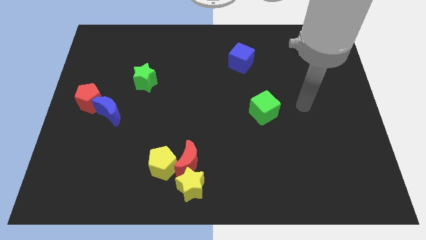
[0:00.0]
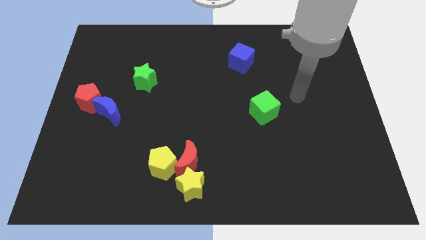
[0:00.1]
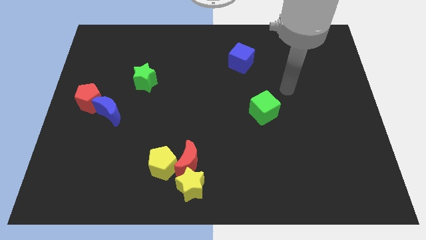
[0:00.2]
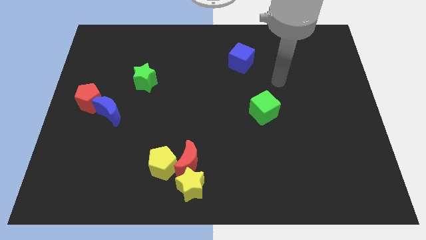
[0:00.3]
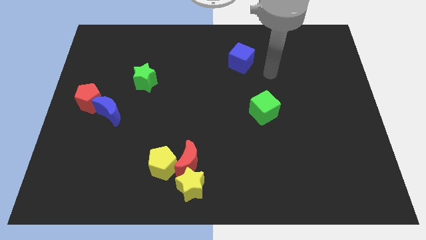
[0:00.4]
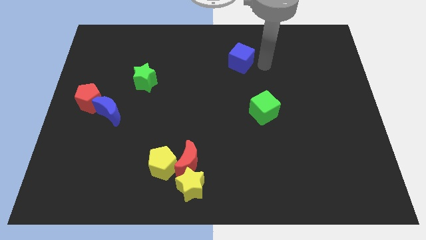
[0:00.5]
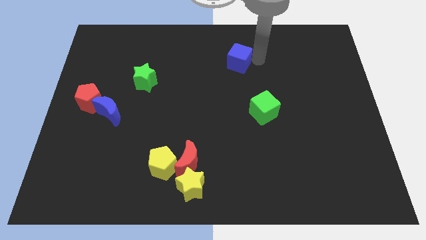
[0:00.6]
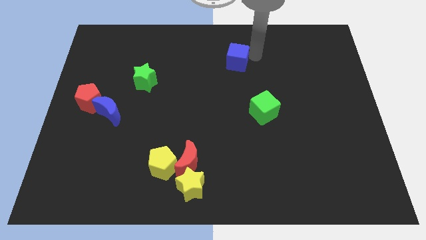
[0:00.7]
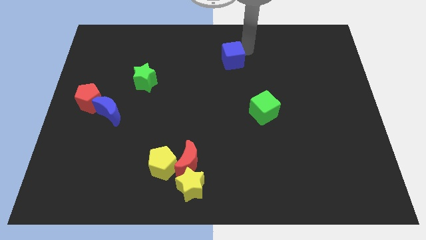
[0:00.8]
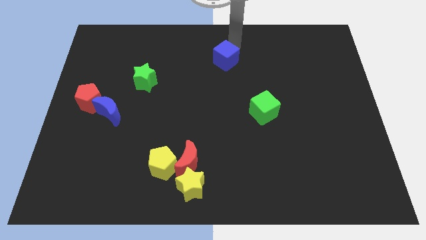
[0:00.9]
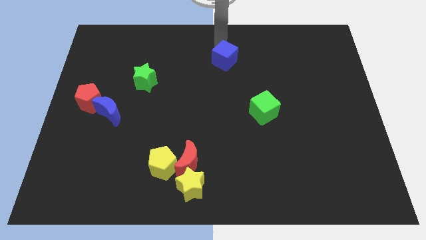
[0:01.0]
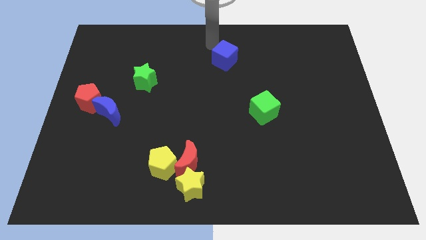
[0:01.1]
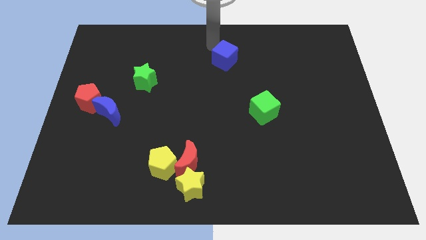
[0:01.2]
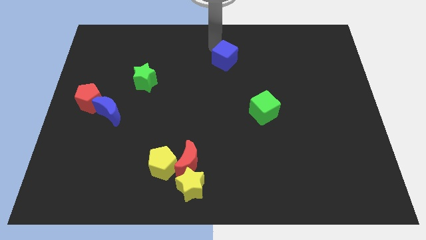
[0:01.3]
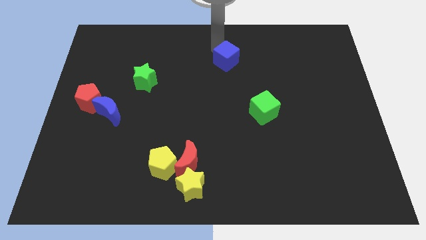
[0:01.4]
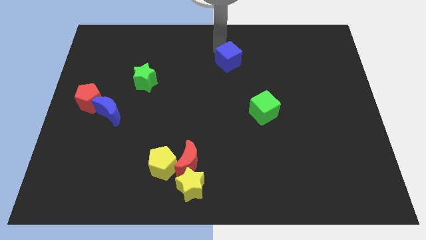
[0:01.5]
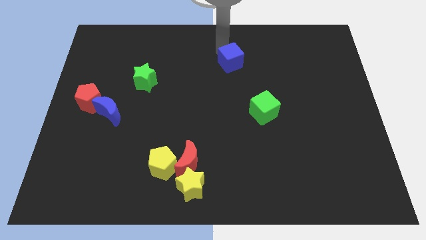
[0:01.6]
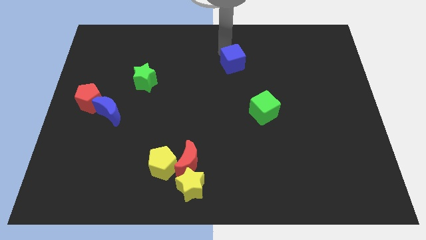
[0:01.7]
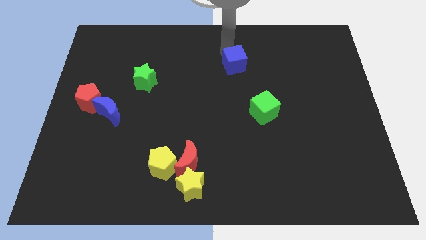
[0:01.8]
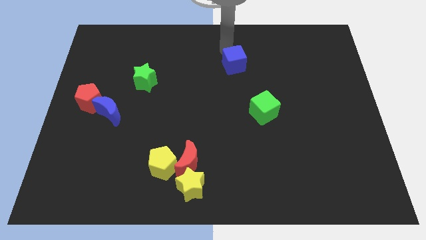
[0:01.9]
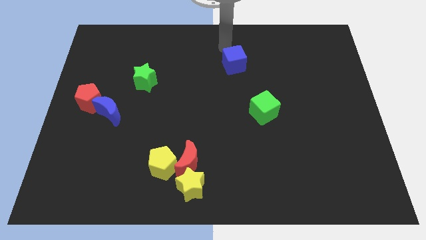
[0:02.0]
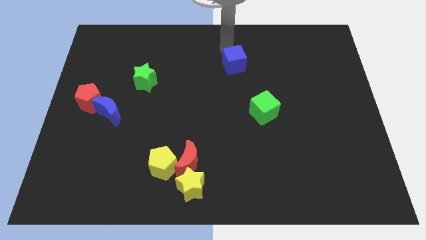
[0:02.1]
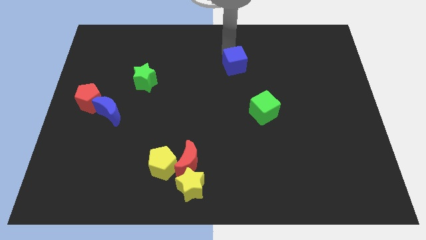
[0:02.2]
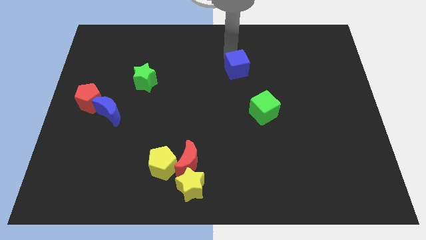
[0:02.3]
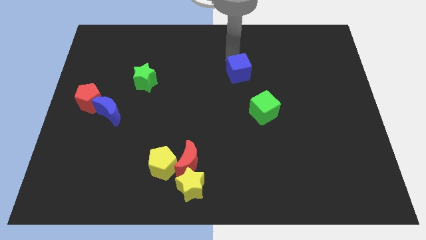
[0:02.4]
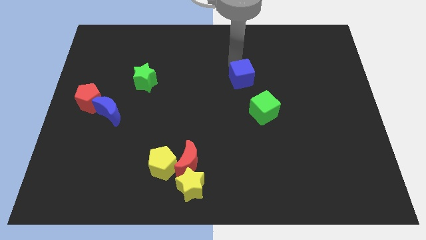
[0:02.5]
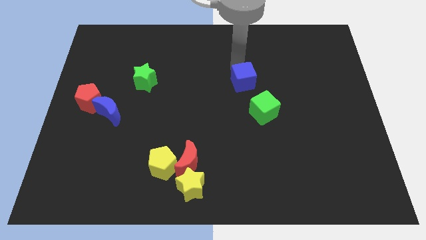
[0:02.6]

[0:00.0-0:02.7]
slide the blue cube down somewhat

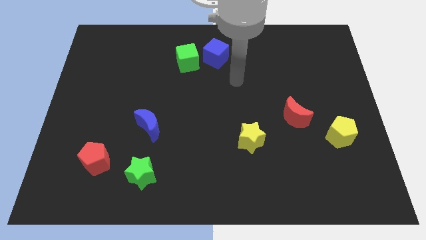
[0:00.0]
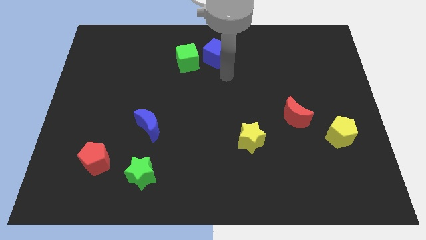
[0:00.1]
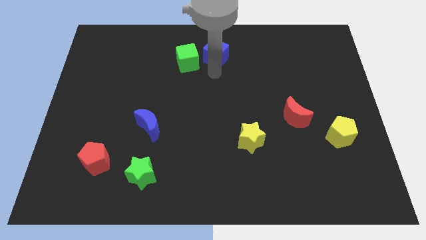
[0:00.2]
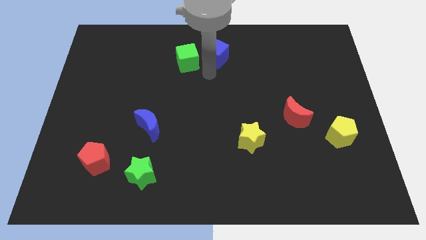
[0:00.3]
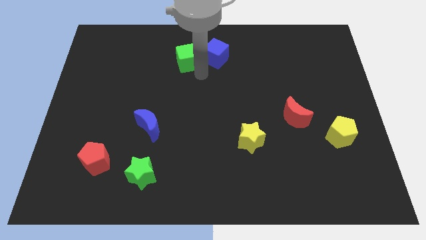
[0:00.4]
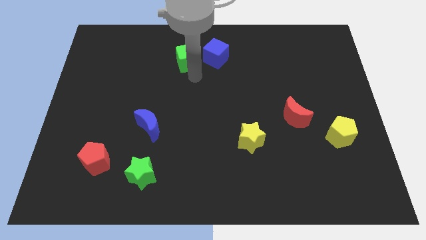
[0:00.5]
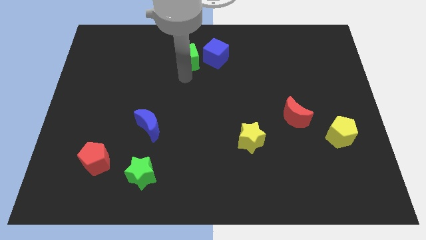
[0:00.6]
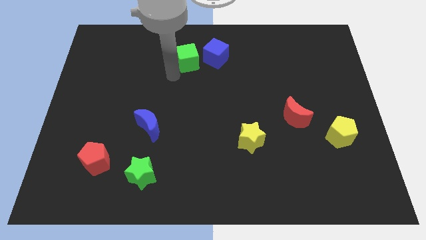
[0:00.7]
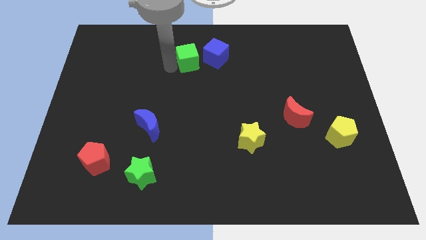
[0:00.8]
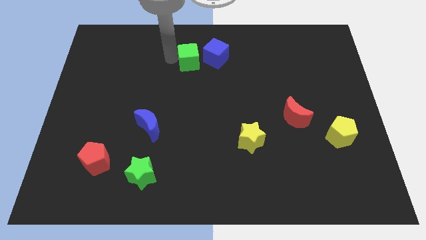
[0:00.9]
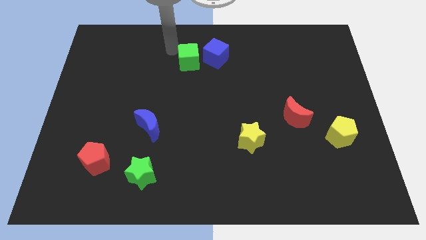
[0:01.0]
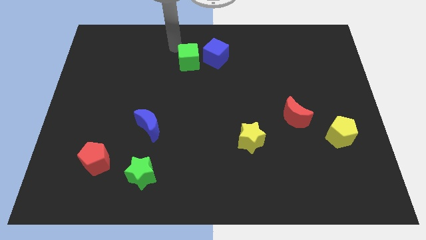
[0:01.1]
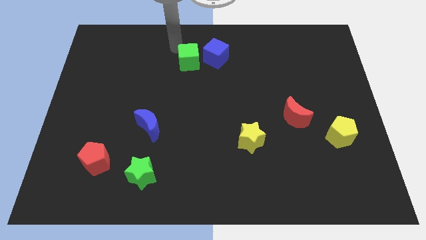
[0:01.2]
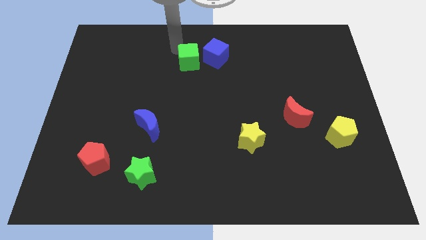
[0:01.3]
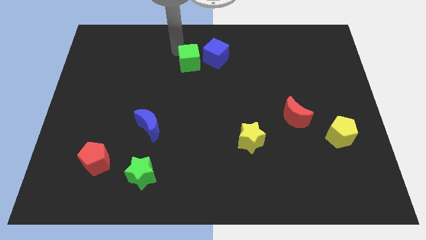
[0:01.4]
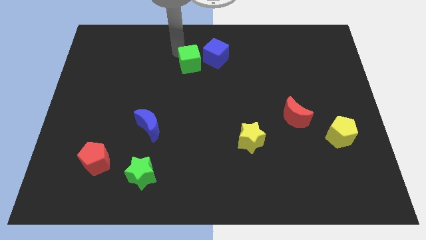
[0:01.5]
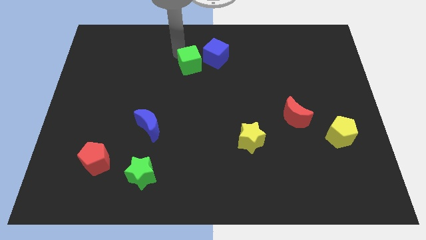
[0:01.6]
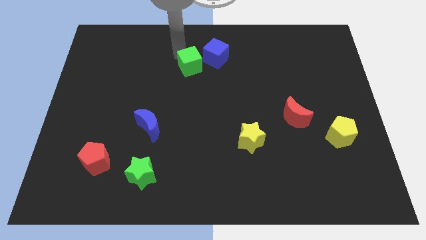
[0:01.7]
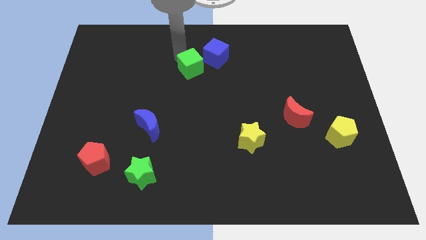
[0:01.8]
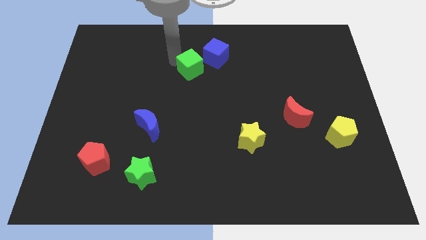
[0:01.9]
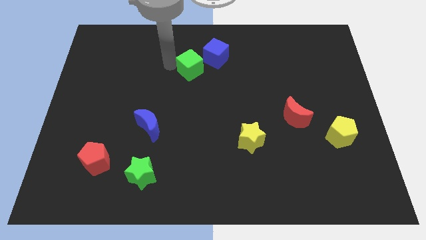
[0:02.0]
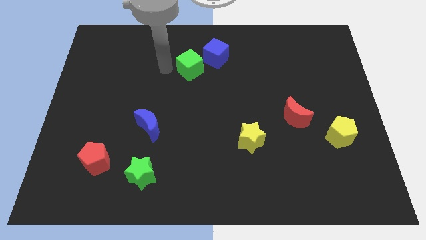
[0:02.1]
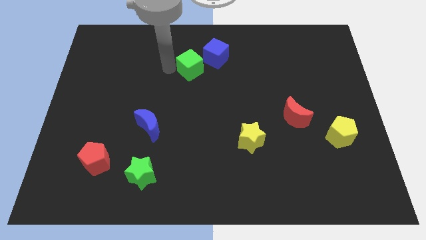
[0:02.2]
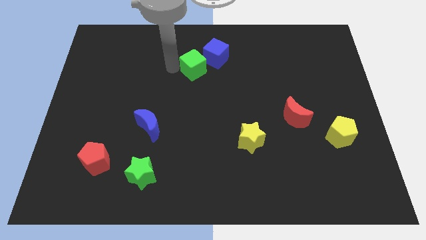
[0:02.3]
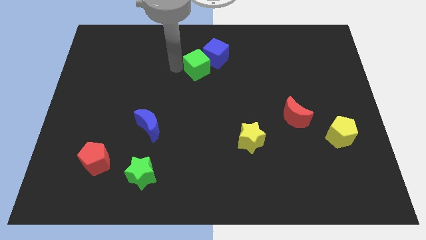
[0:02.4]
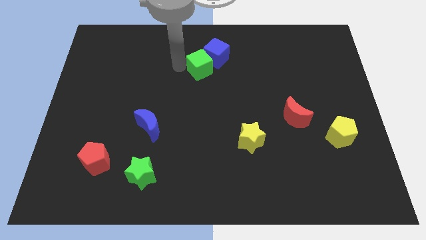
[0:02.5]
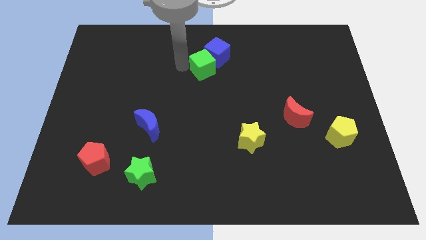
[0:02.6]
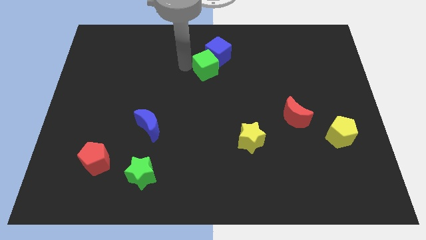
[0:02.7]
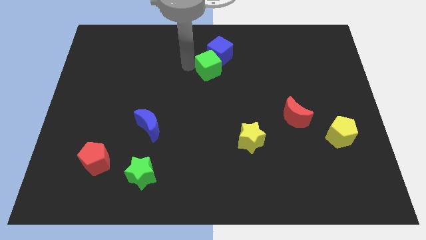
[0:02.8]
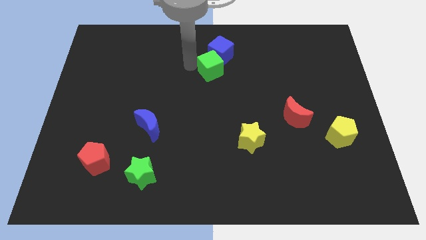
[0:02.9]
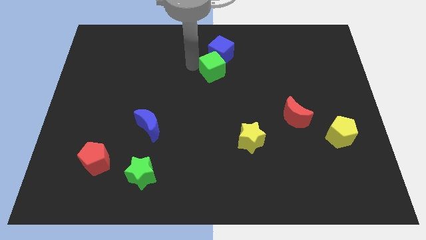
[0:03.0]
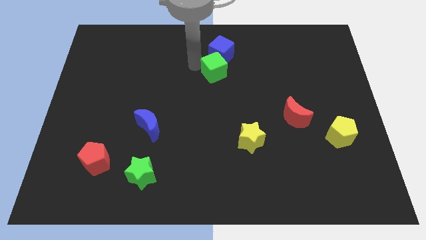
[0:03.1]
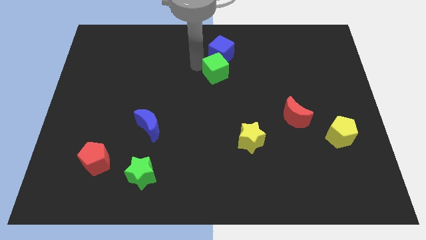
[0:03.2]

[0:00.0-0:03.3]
slightly push the green cube right

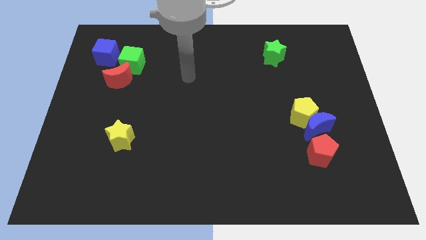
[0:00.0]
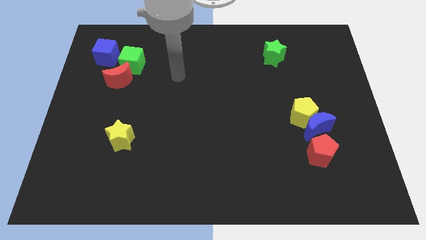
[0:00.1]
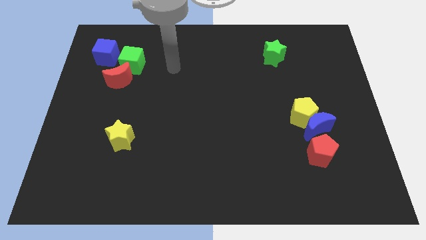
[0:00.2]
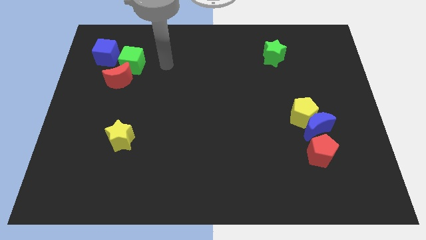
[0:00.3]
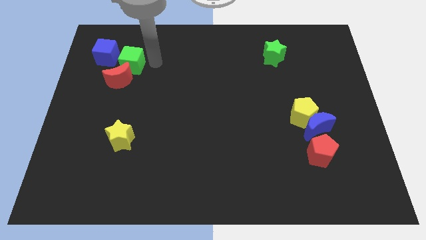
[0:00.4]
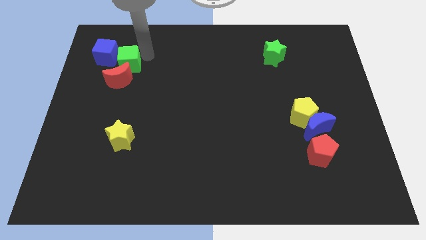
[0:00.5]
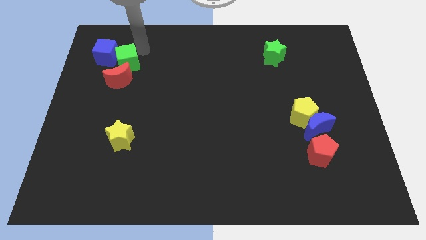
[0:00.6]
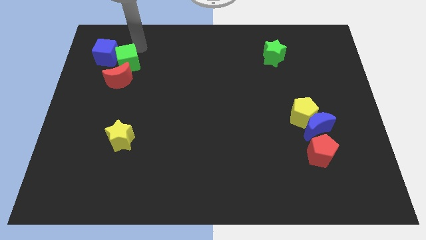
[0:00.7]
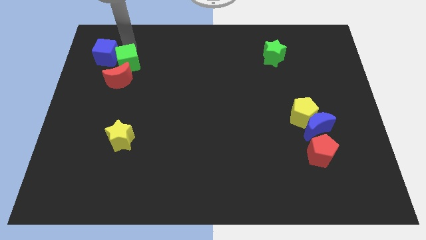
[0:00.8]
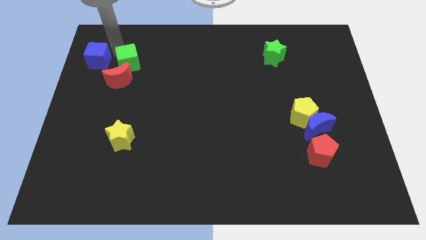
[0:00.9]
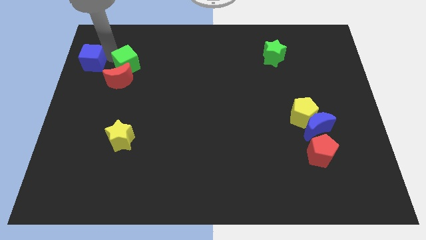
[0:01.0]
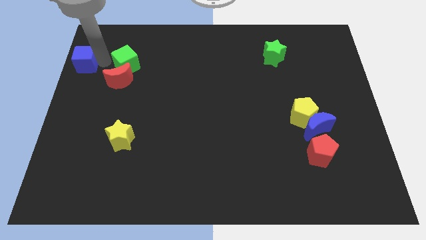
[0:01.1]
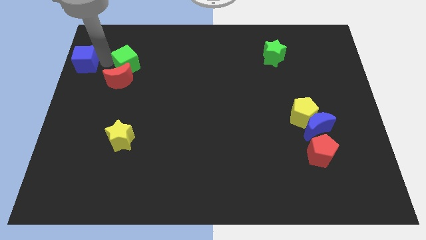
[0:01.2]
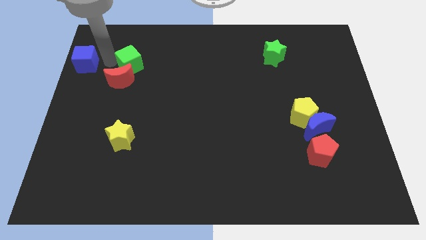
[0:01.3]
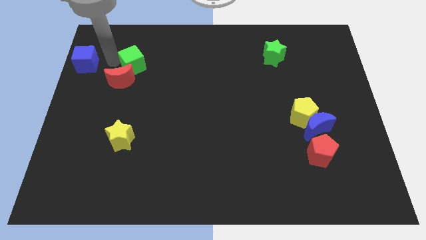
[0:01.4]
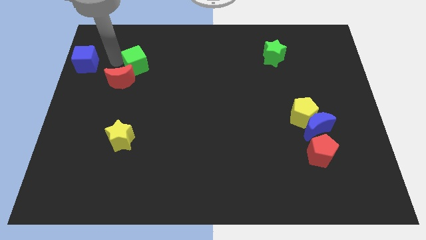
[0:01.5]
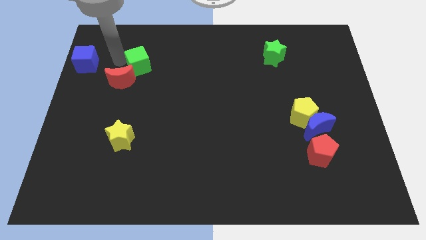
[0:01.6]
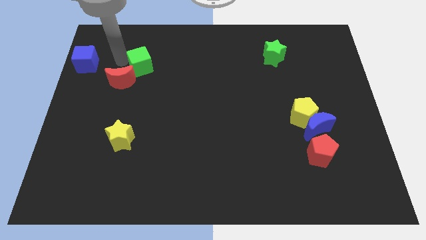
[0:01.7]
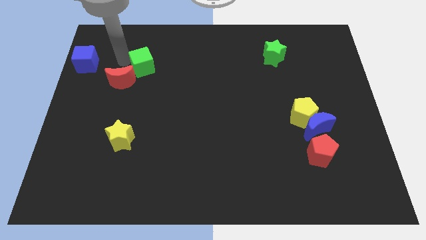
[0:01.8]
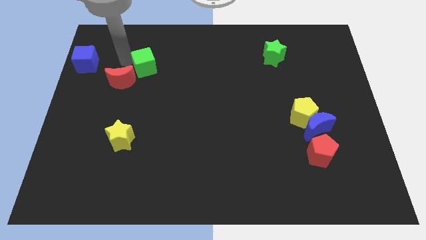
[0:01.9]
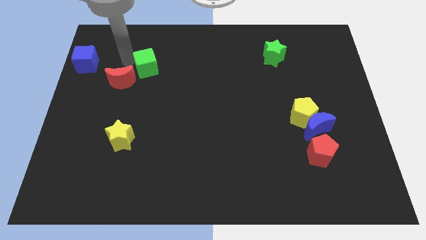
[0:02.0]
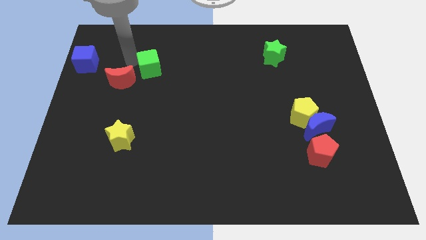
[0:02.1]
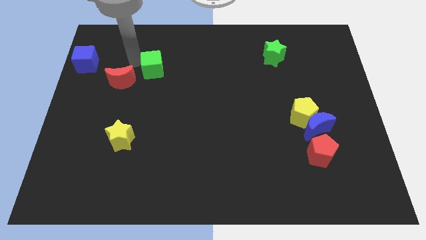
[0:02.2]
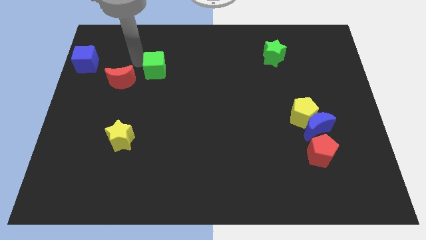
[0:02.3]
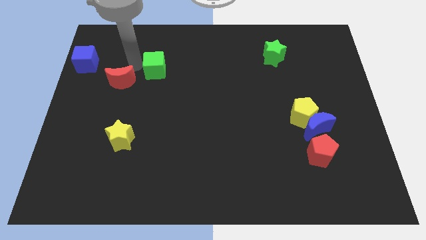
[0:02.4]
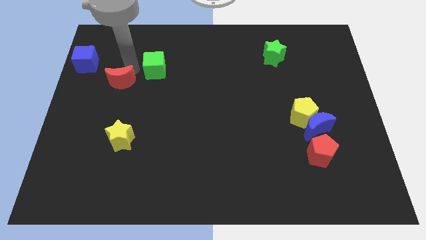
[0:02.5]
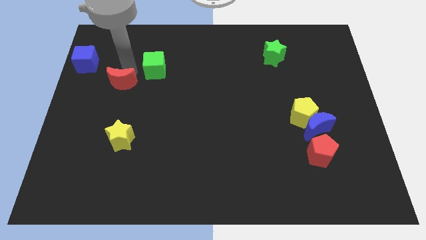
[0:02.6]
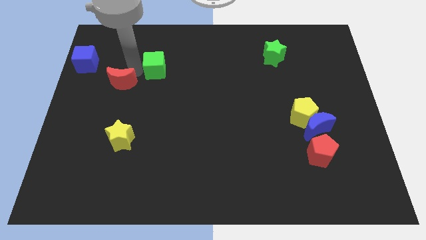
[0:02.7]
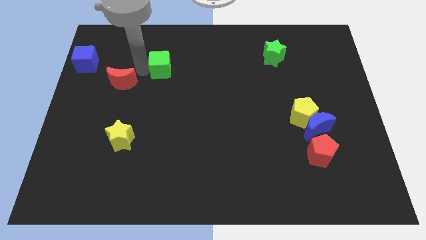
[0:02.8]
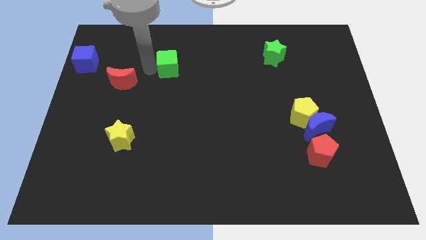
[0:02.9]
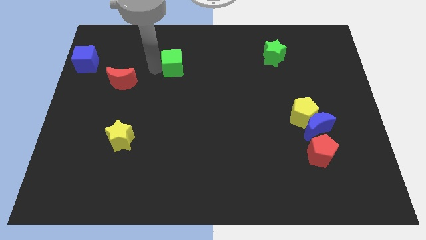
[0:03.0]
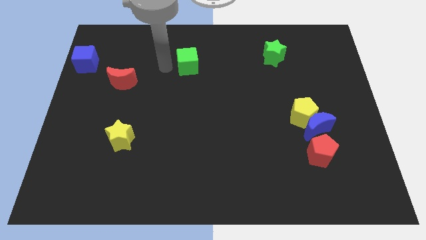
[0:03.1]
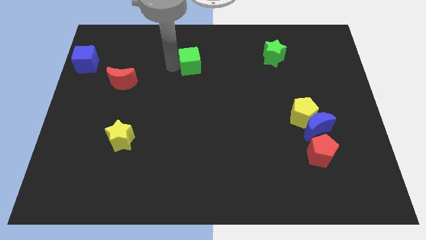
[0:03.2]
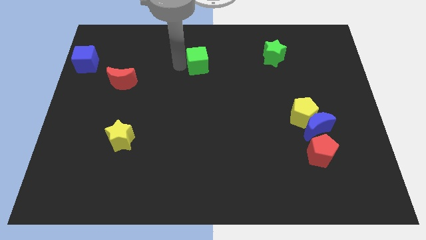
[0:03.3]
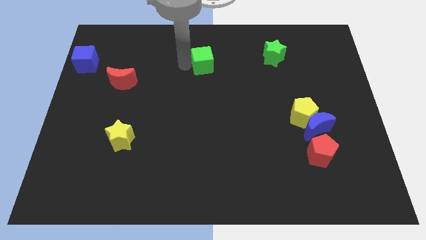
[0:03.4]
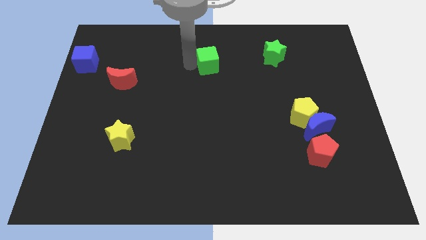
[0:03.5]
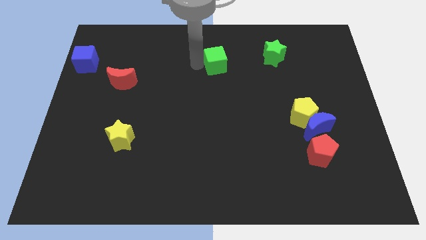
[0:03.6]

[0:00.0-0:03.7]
push the green cube to the right
